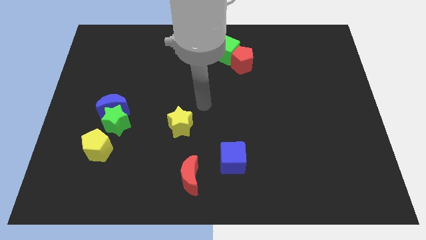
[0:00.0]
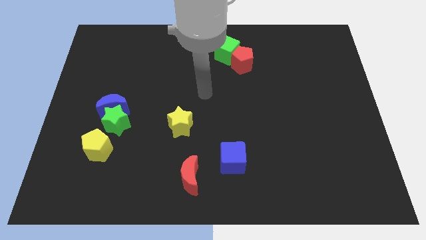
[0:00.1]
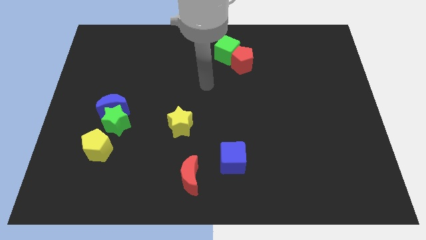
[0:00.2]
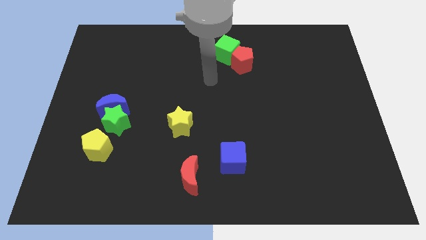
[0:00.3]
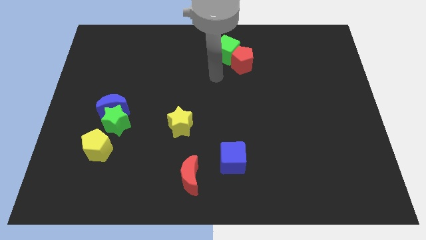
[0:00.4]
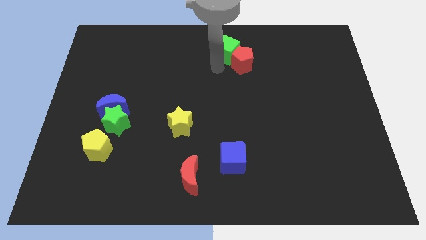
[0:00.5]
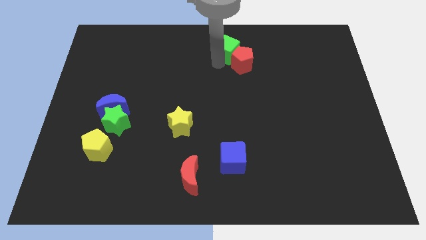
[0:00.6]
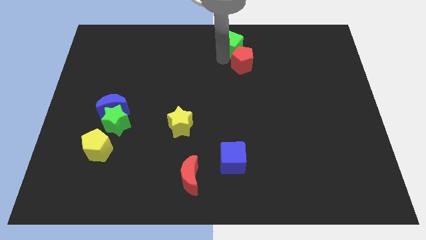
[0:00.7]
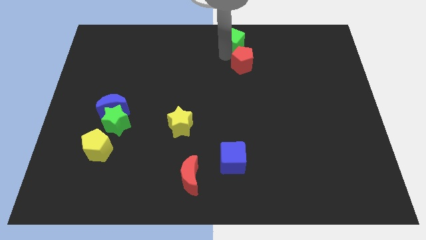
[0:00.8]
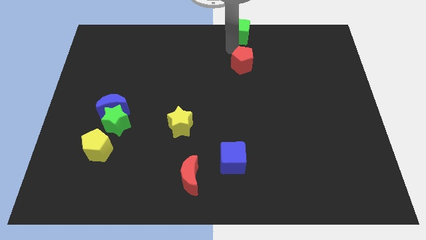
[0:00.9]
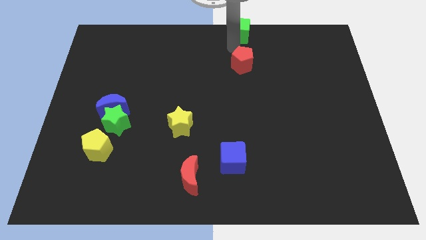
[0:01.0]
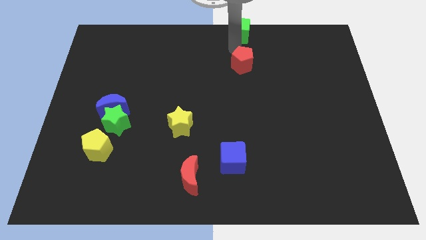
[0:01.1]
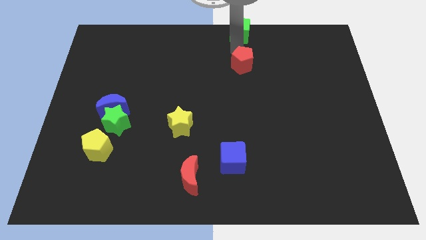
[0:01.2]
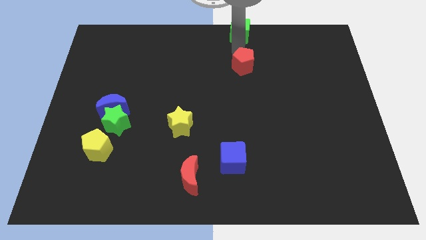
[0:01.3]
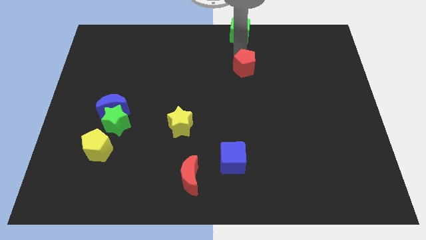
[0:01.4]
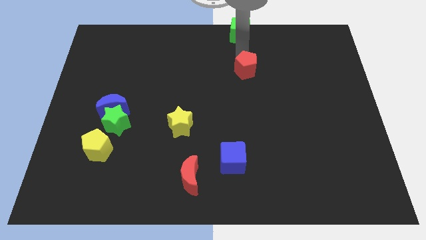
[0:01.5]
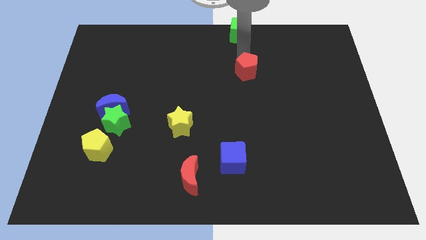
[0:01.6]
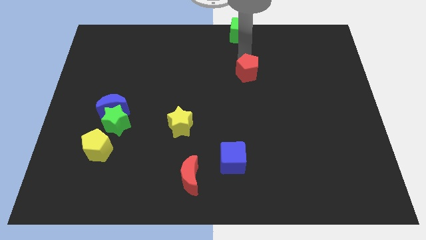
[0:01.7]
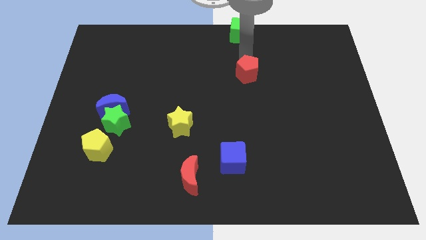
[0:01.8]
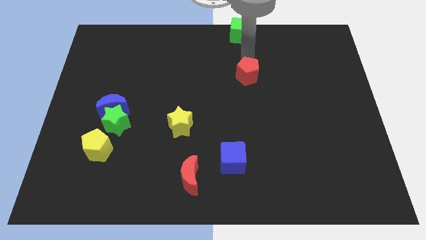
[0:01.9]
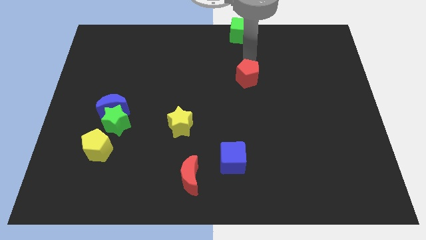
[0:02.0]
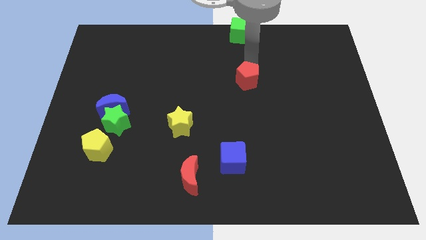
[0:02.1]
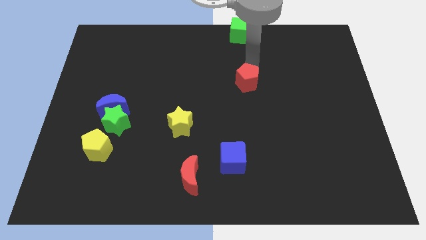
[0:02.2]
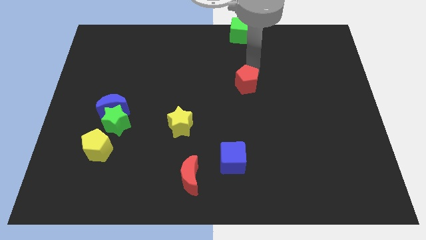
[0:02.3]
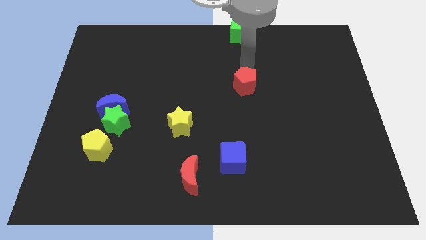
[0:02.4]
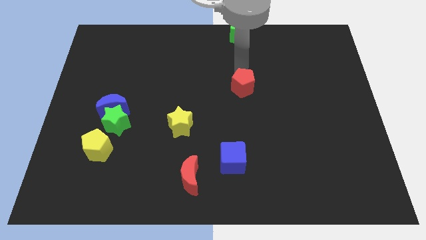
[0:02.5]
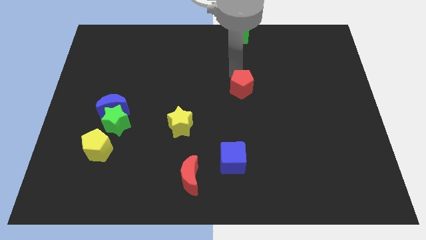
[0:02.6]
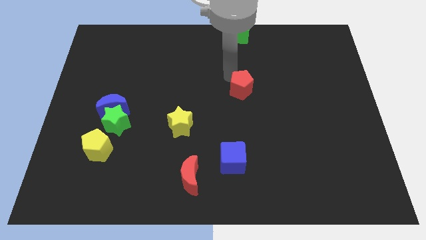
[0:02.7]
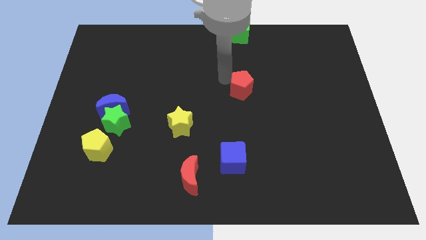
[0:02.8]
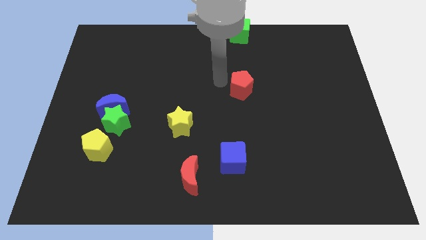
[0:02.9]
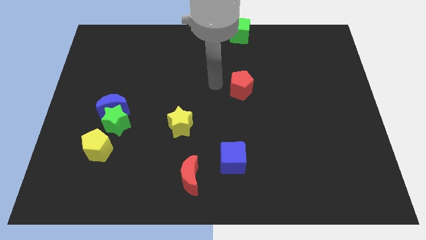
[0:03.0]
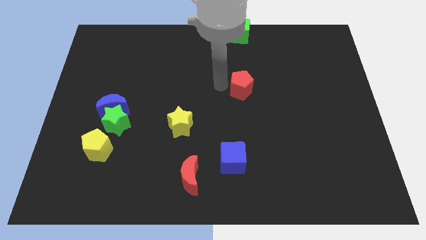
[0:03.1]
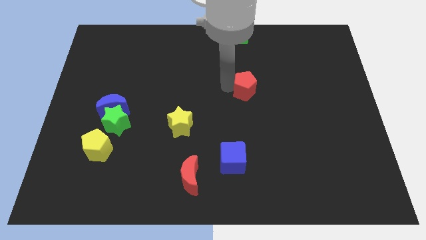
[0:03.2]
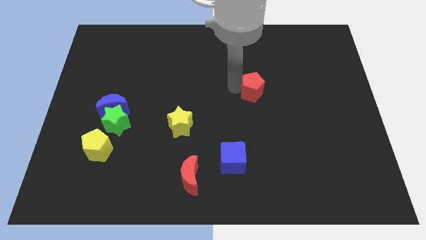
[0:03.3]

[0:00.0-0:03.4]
slide the red pentagon somewhat downwards and to the right diagonally

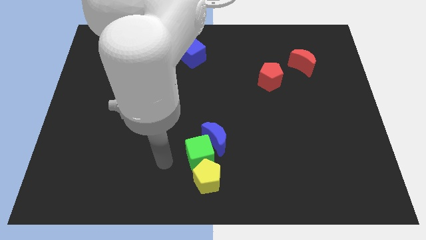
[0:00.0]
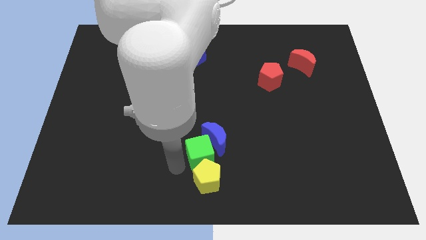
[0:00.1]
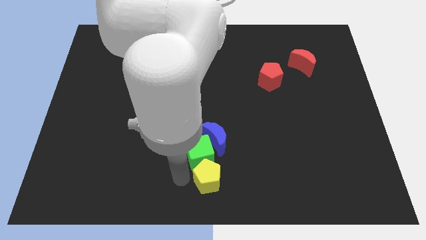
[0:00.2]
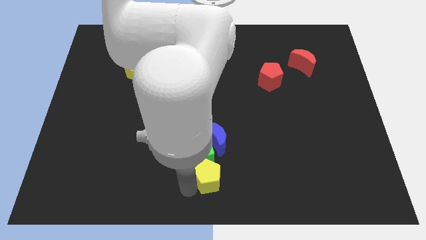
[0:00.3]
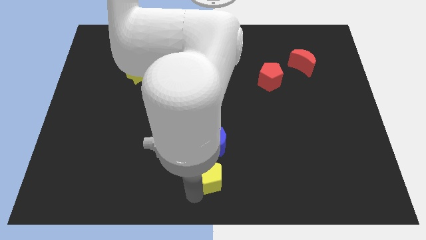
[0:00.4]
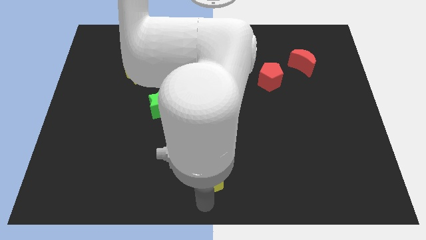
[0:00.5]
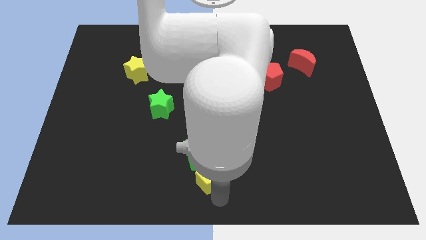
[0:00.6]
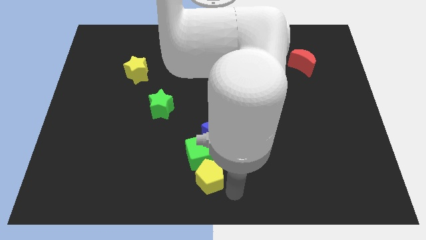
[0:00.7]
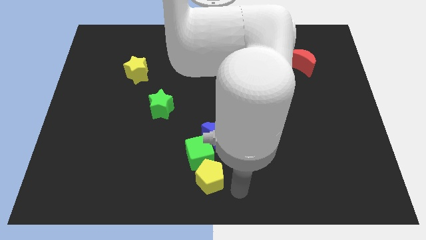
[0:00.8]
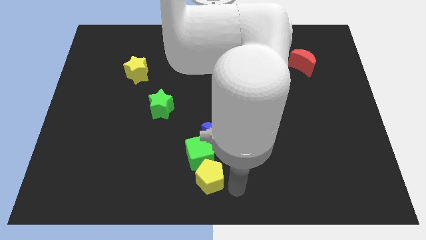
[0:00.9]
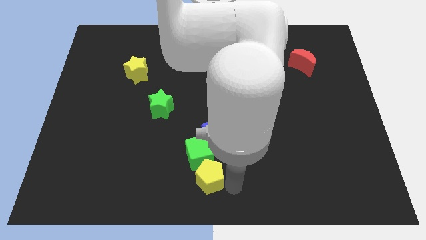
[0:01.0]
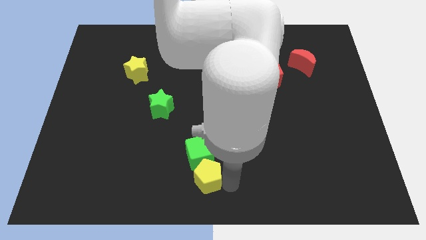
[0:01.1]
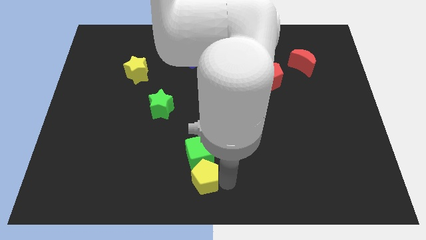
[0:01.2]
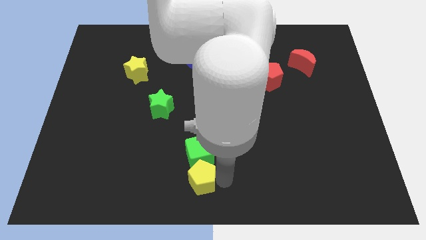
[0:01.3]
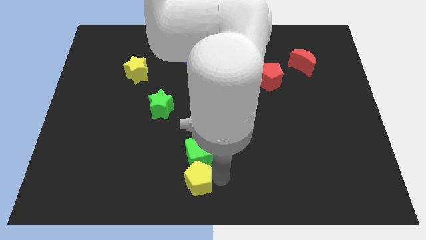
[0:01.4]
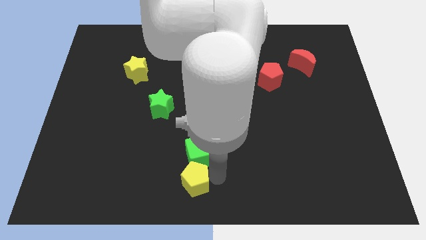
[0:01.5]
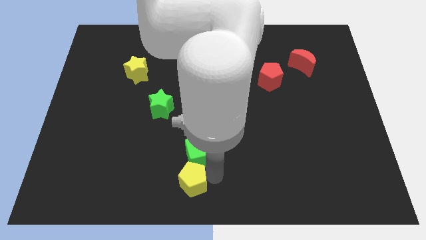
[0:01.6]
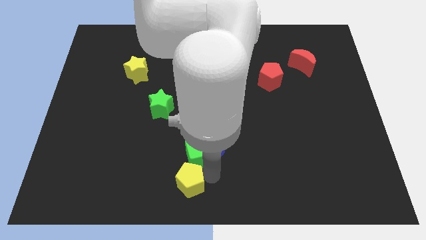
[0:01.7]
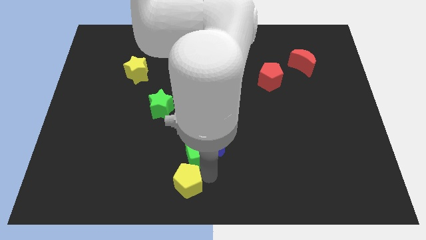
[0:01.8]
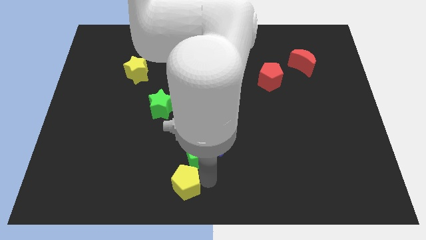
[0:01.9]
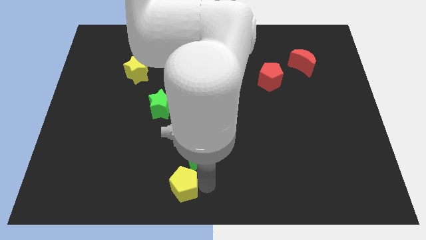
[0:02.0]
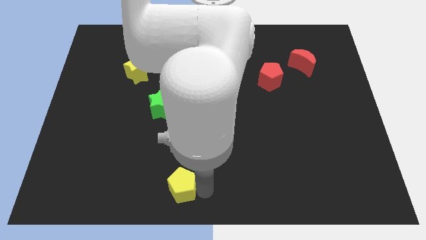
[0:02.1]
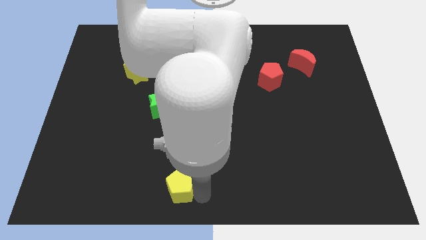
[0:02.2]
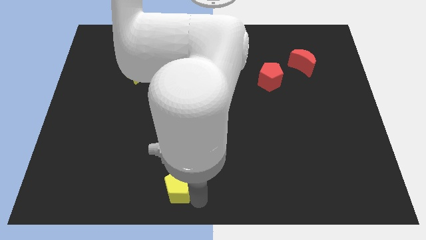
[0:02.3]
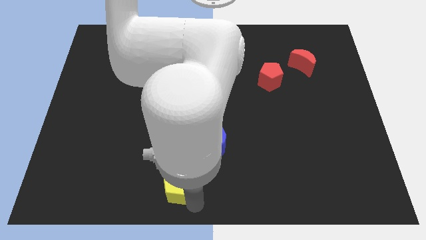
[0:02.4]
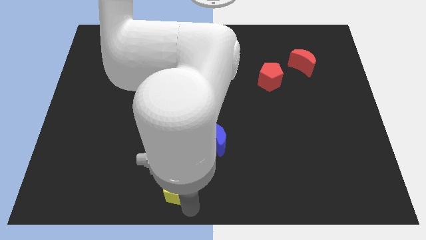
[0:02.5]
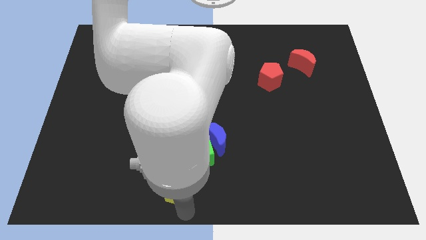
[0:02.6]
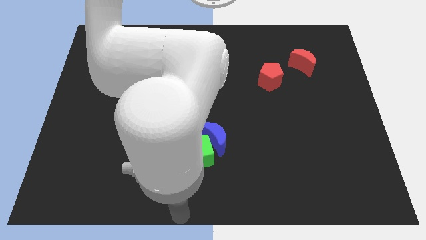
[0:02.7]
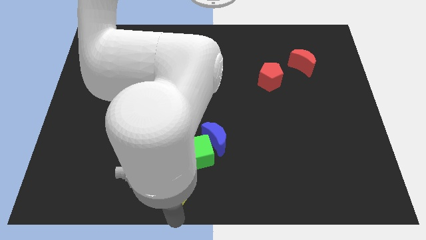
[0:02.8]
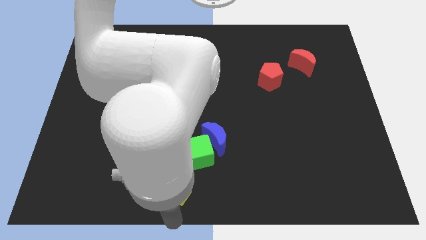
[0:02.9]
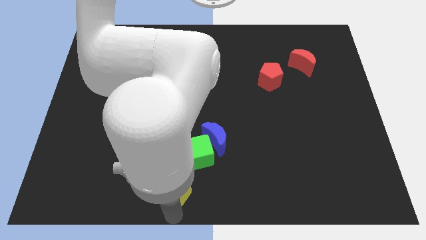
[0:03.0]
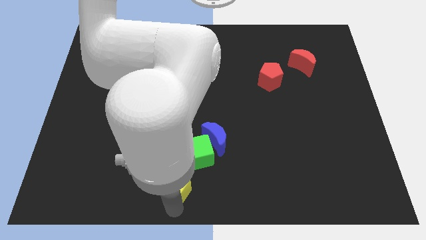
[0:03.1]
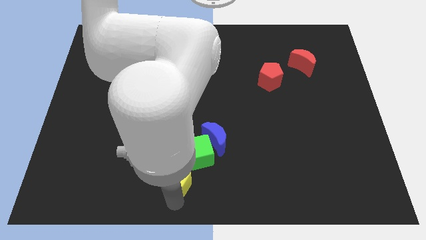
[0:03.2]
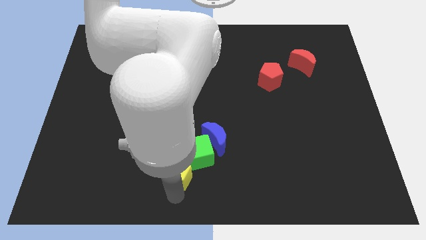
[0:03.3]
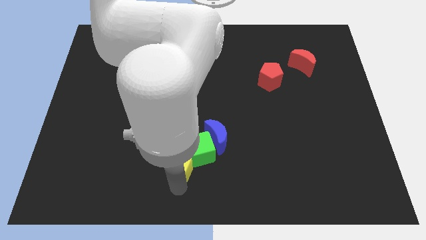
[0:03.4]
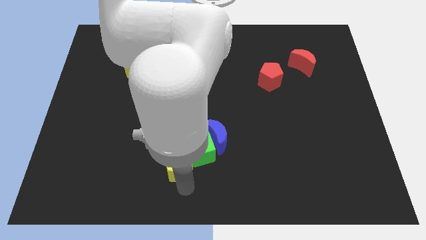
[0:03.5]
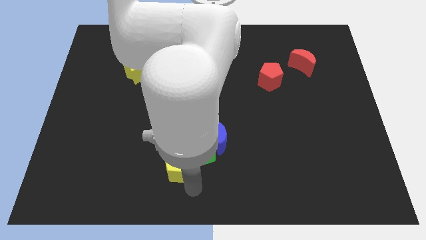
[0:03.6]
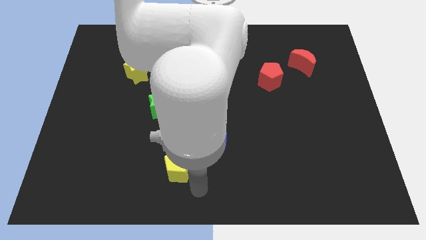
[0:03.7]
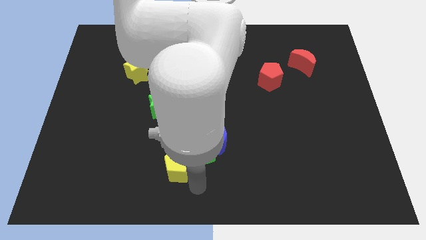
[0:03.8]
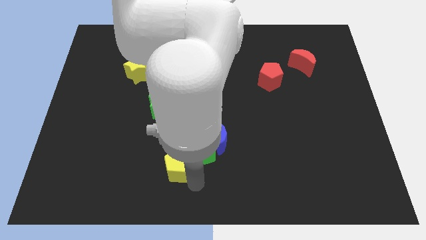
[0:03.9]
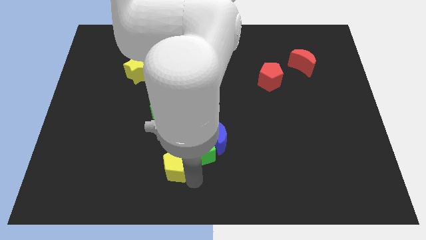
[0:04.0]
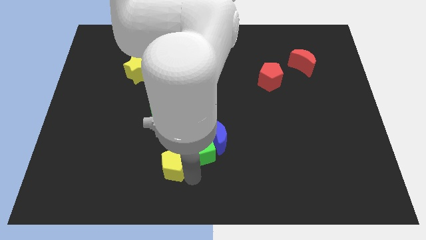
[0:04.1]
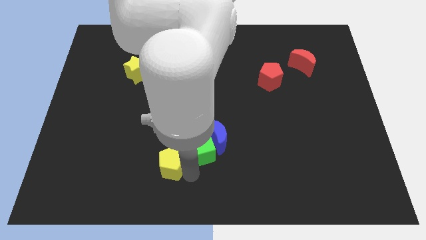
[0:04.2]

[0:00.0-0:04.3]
move the yellow pentagon slightly upwards and to the left diagonally
